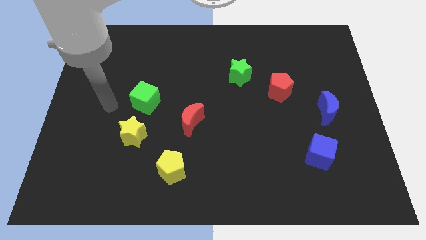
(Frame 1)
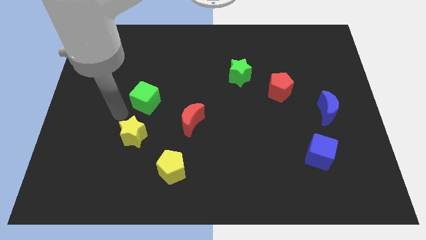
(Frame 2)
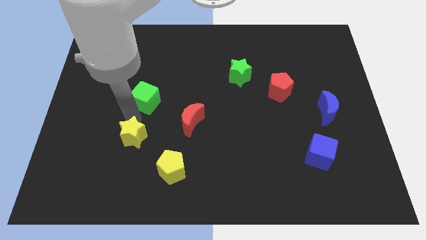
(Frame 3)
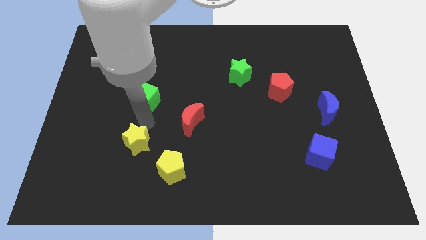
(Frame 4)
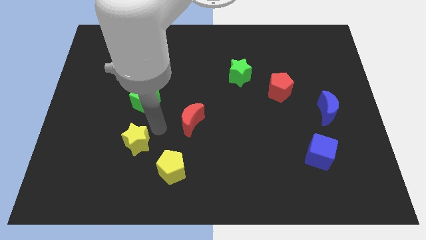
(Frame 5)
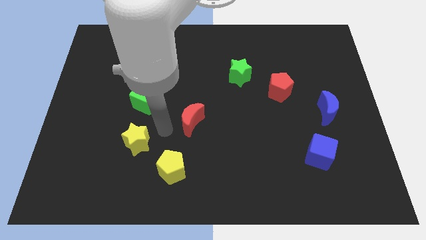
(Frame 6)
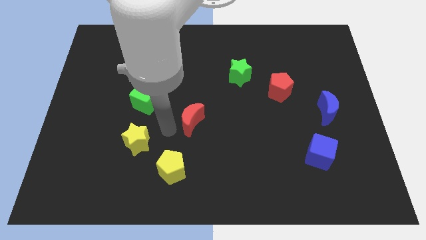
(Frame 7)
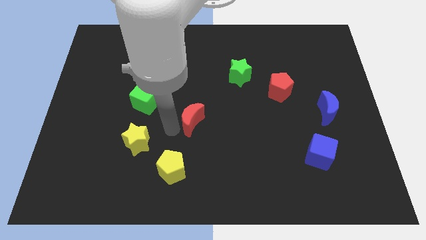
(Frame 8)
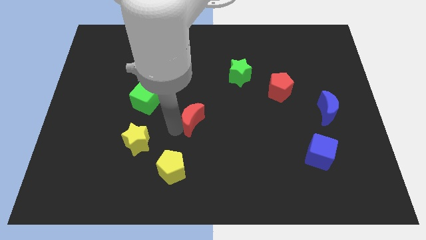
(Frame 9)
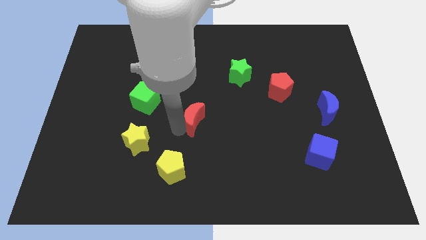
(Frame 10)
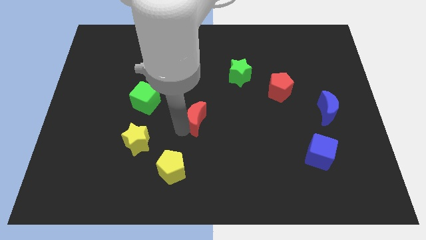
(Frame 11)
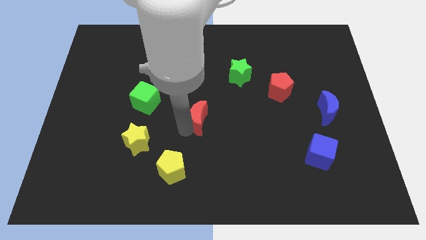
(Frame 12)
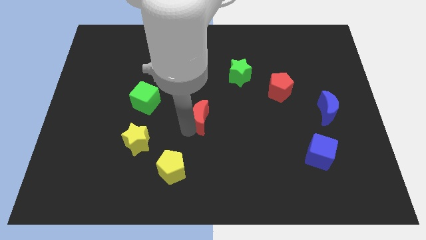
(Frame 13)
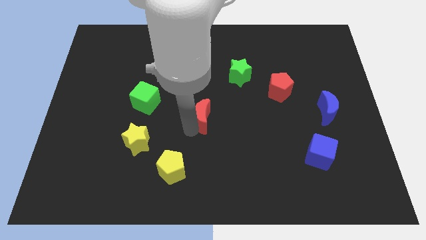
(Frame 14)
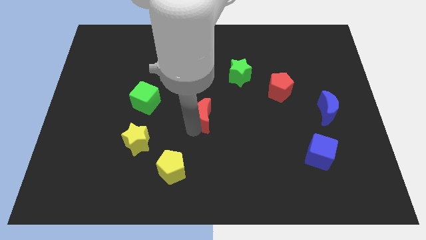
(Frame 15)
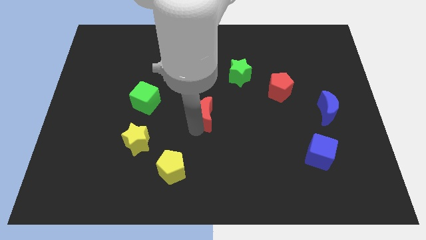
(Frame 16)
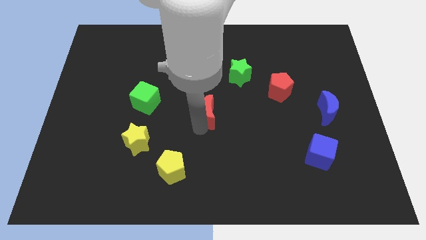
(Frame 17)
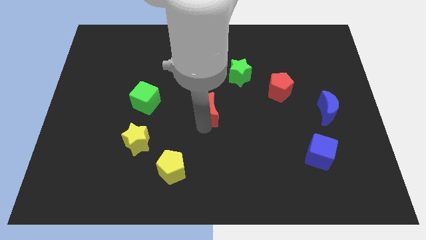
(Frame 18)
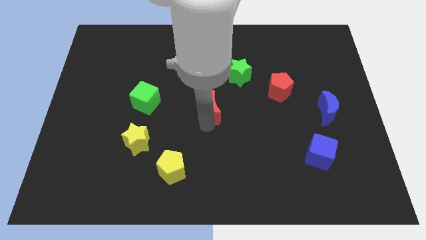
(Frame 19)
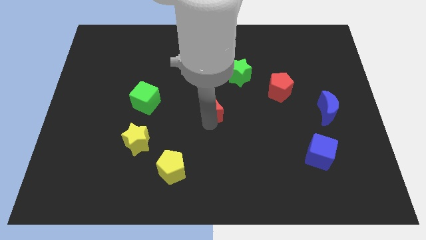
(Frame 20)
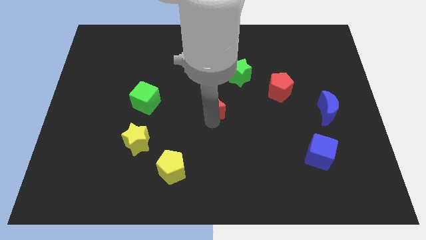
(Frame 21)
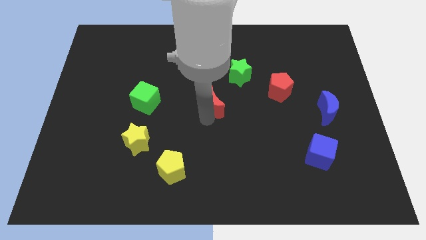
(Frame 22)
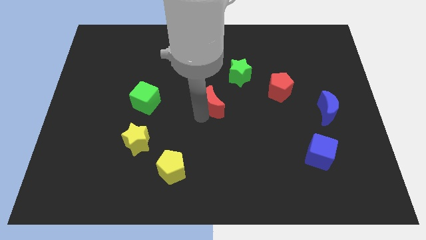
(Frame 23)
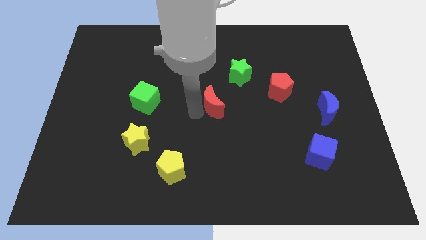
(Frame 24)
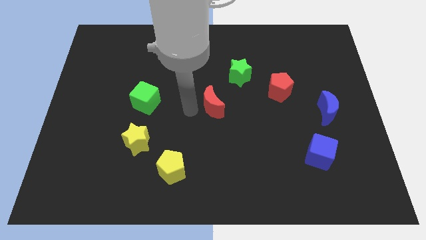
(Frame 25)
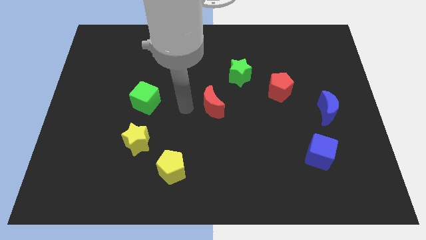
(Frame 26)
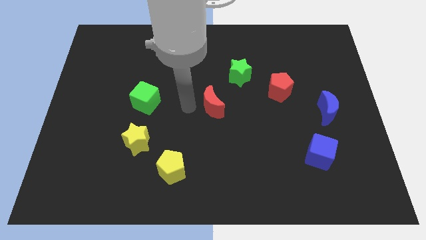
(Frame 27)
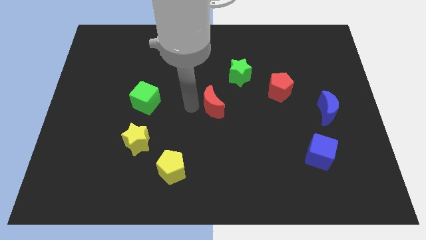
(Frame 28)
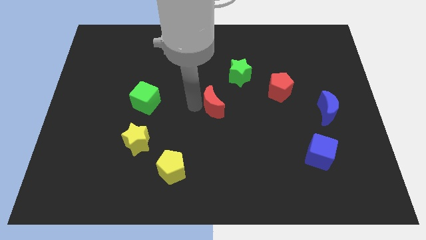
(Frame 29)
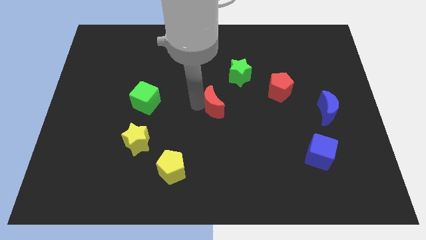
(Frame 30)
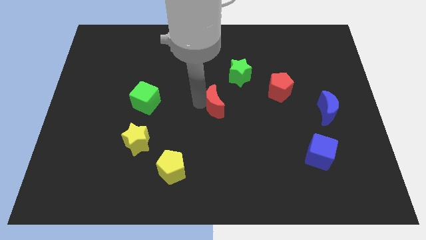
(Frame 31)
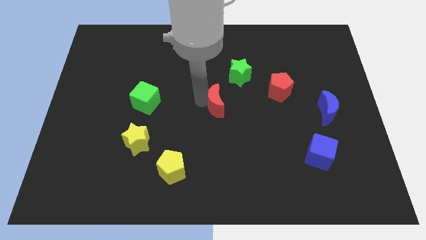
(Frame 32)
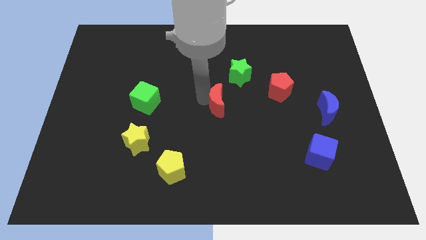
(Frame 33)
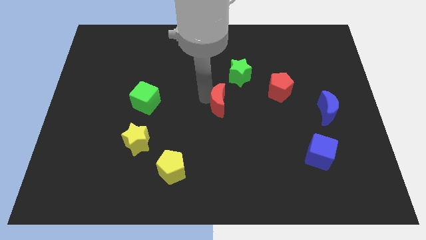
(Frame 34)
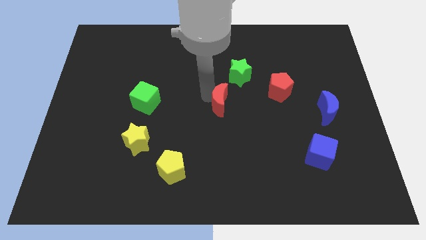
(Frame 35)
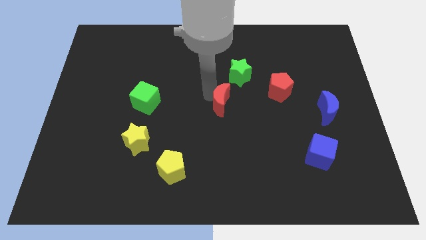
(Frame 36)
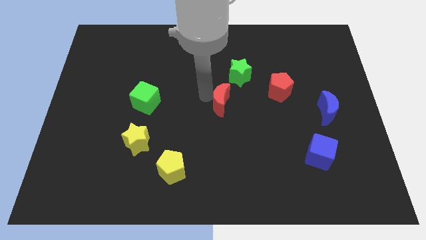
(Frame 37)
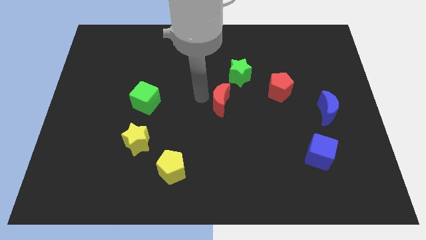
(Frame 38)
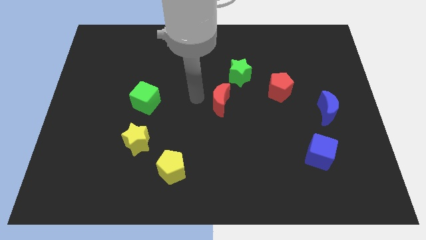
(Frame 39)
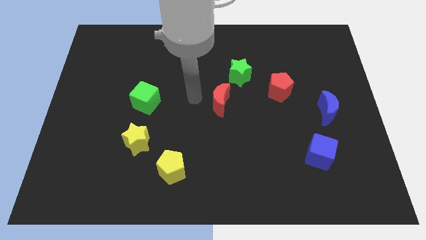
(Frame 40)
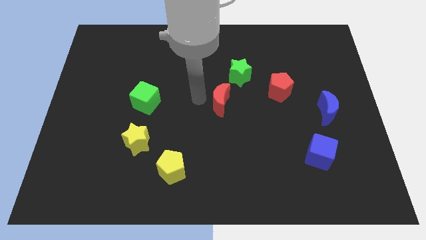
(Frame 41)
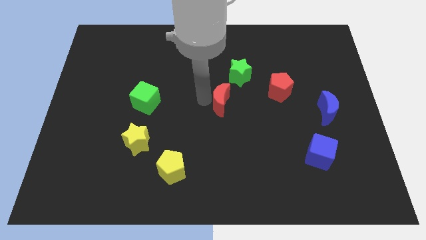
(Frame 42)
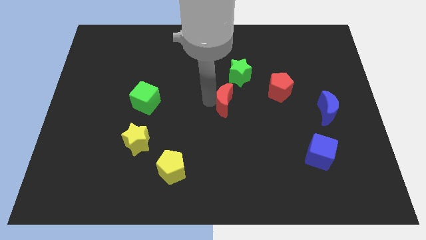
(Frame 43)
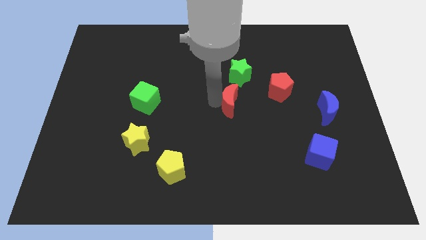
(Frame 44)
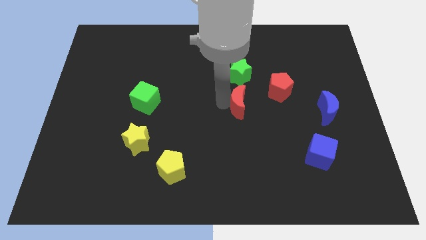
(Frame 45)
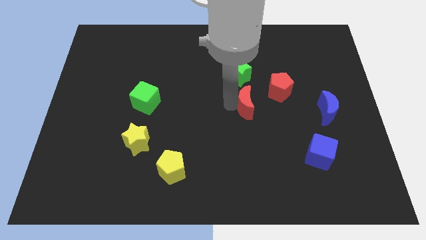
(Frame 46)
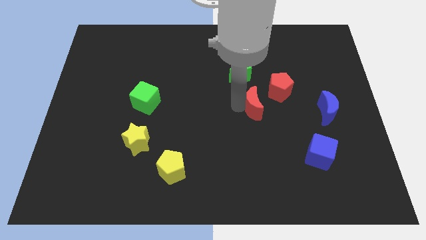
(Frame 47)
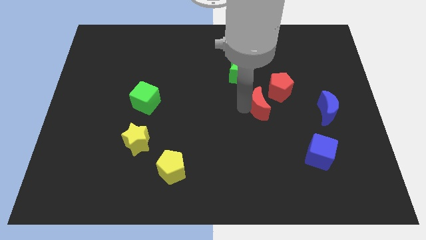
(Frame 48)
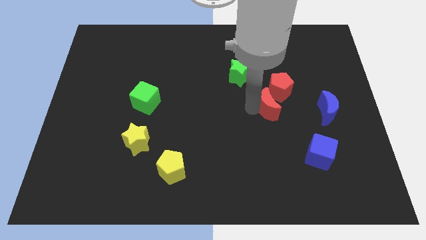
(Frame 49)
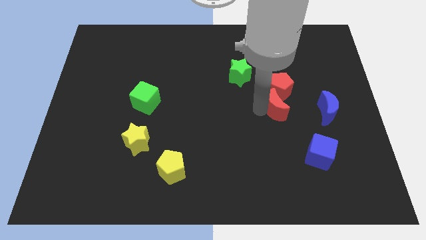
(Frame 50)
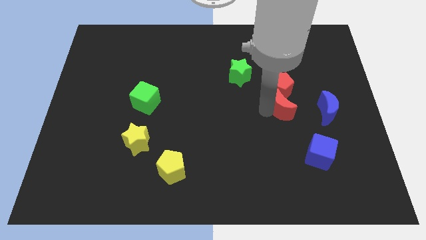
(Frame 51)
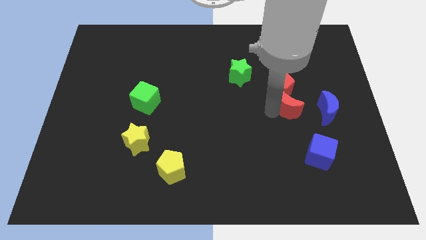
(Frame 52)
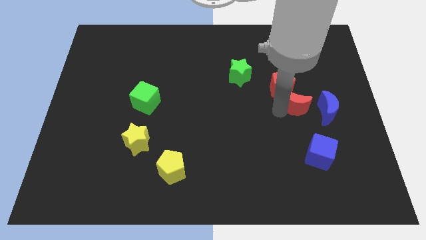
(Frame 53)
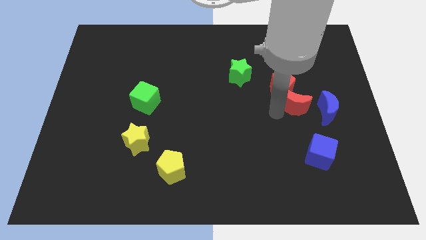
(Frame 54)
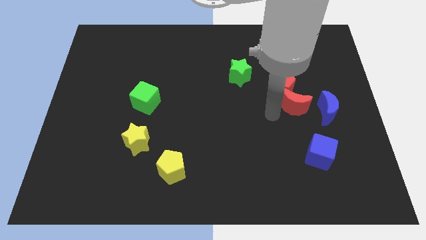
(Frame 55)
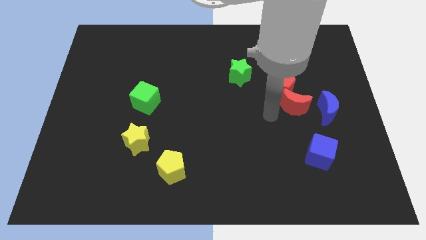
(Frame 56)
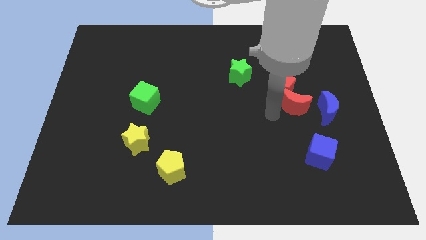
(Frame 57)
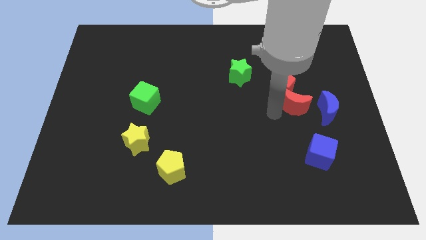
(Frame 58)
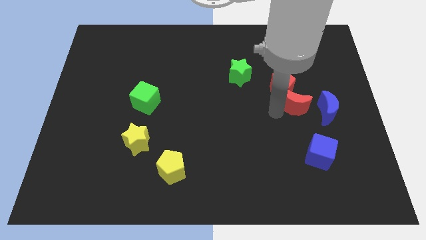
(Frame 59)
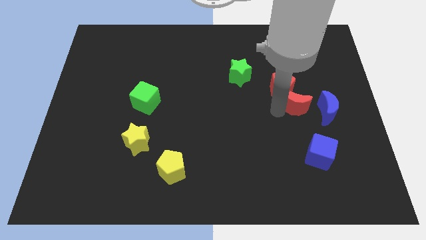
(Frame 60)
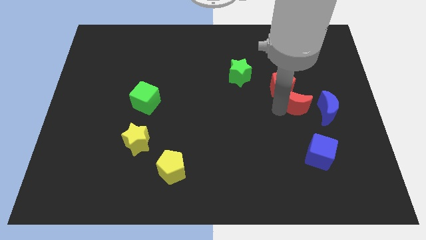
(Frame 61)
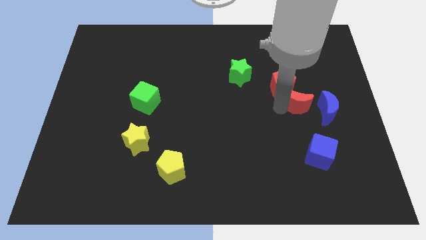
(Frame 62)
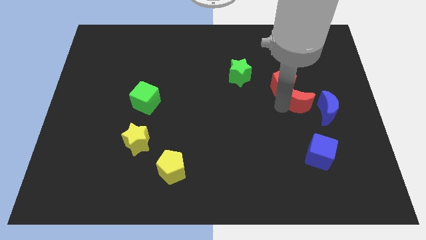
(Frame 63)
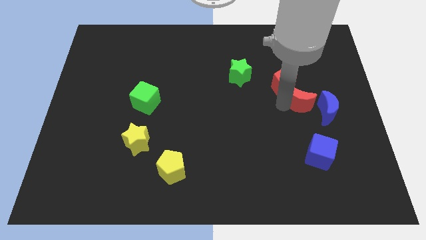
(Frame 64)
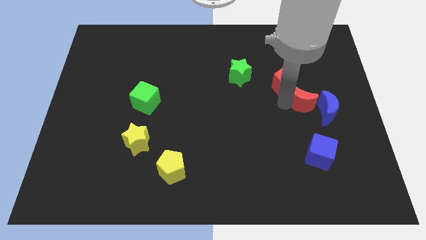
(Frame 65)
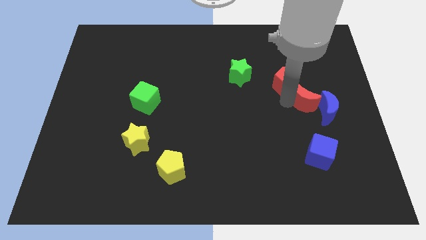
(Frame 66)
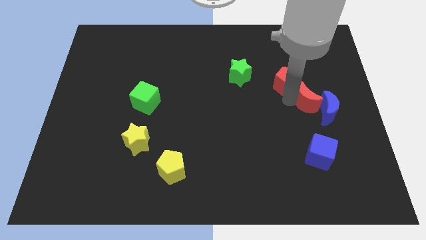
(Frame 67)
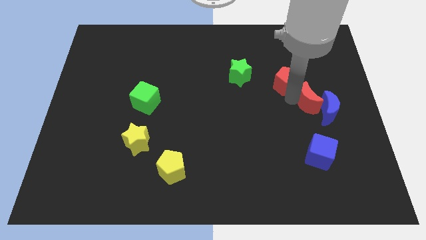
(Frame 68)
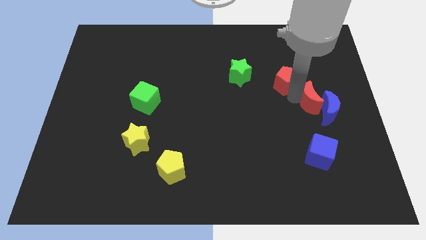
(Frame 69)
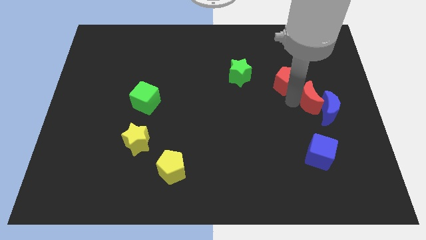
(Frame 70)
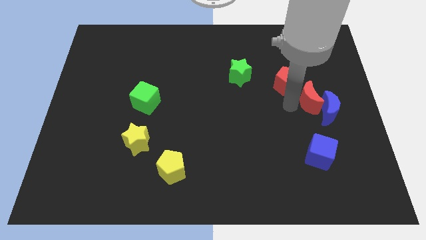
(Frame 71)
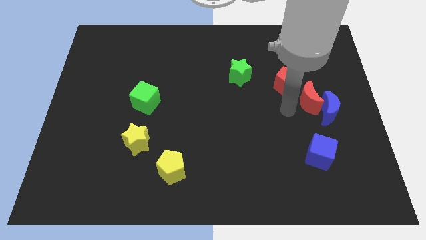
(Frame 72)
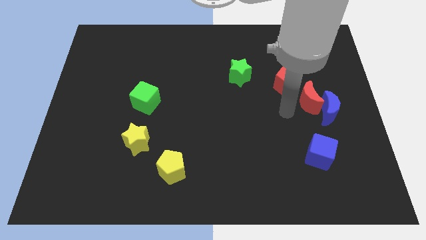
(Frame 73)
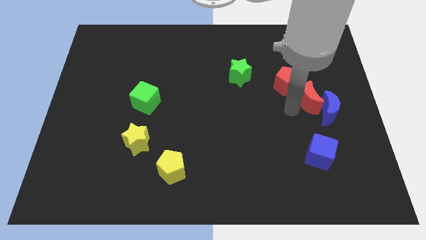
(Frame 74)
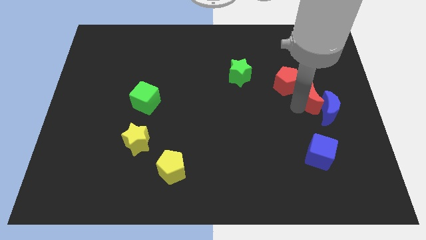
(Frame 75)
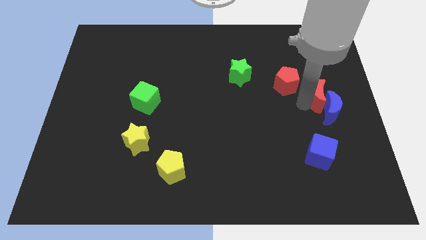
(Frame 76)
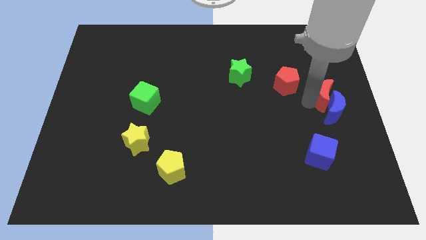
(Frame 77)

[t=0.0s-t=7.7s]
slide the red moon to the right side of the board
